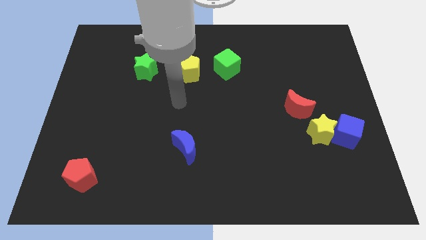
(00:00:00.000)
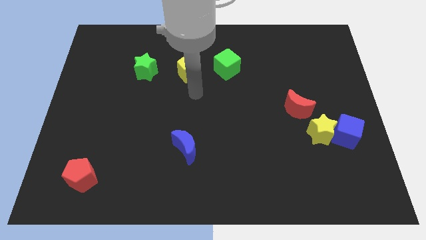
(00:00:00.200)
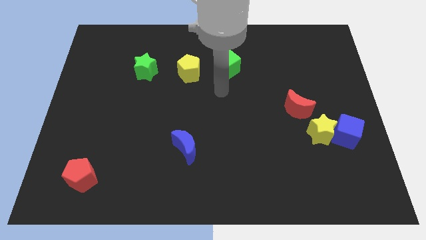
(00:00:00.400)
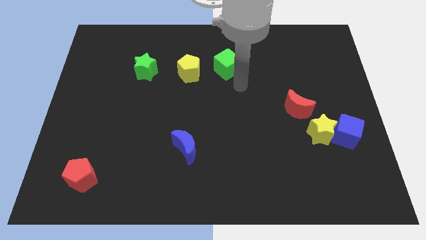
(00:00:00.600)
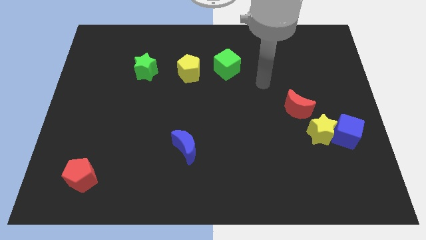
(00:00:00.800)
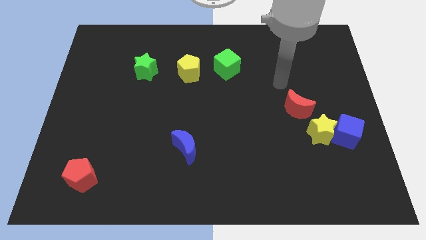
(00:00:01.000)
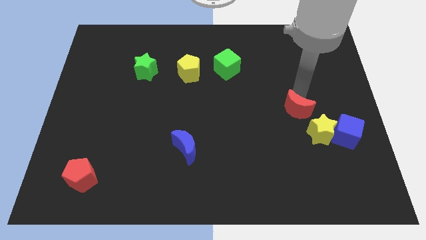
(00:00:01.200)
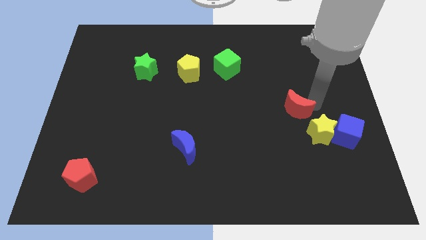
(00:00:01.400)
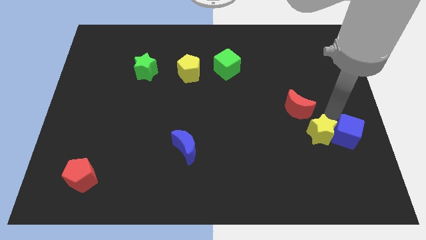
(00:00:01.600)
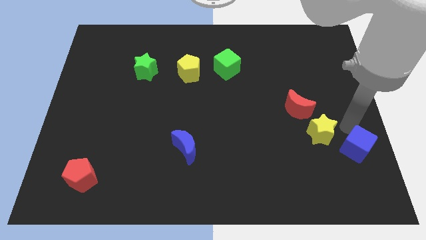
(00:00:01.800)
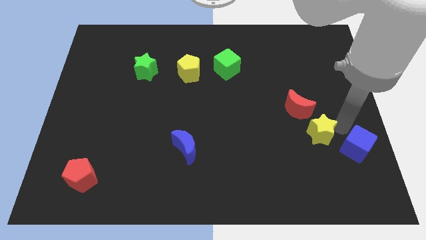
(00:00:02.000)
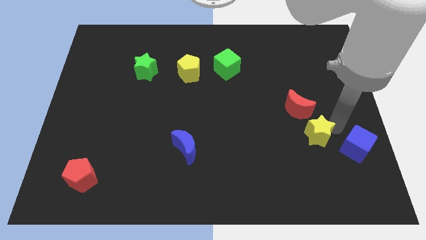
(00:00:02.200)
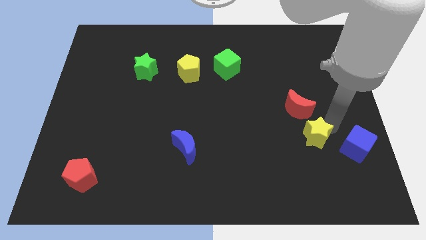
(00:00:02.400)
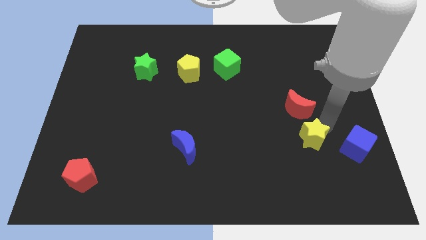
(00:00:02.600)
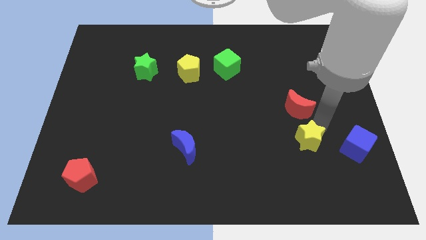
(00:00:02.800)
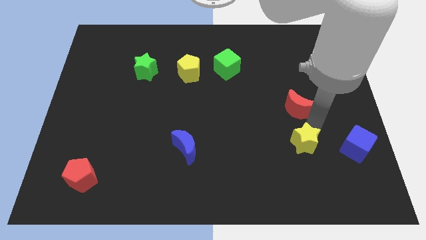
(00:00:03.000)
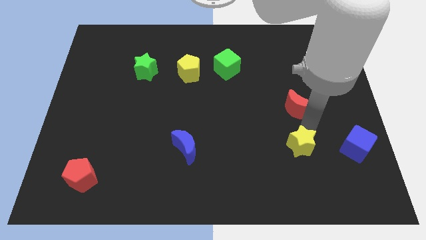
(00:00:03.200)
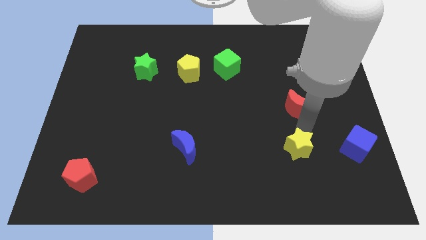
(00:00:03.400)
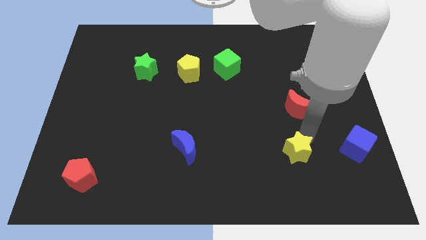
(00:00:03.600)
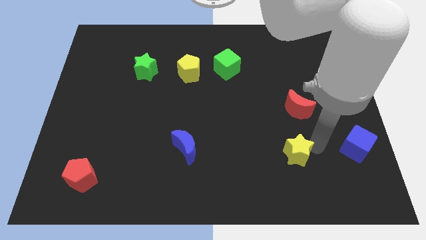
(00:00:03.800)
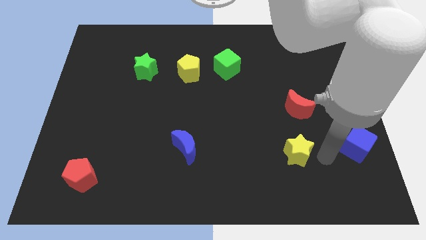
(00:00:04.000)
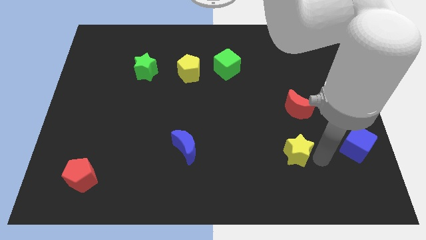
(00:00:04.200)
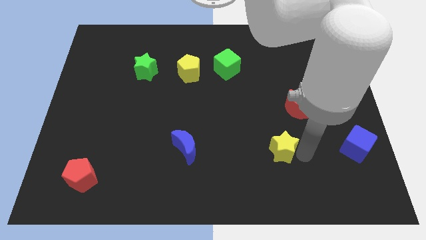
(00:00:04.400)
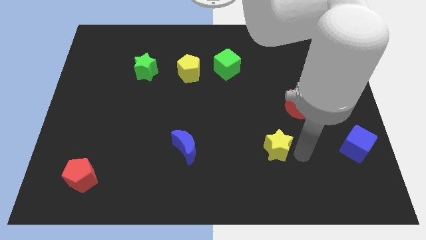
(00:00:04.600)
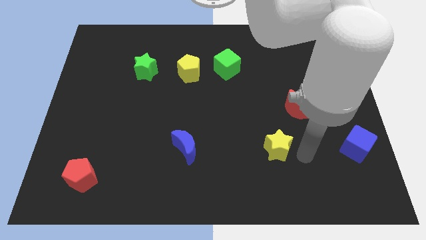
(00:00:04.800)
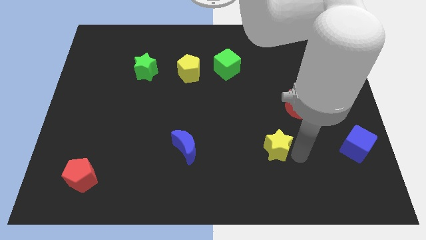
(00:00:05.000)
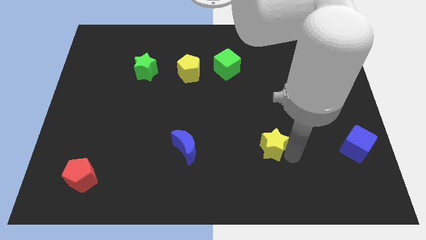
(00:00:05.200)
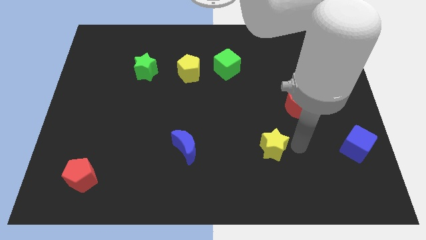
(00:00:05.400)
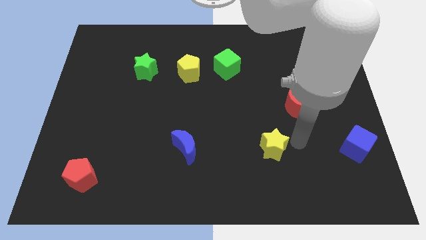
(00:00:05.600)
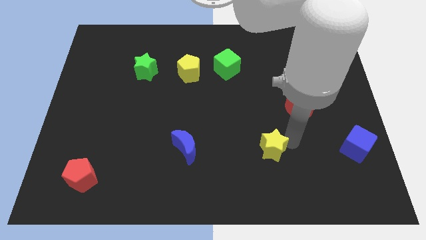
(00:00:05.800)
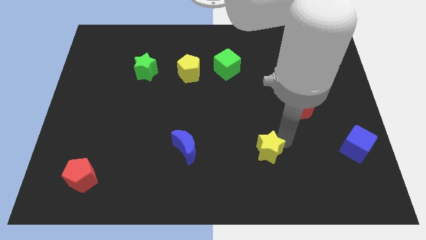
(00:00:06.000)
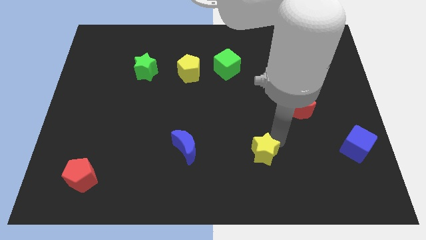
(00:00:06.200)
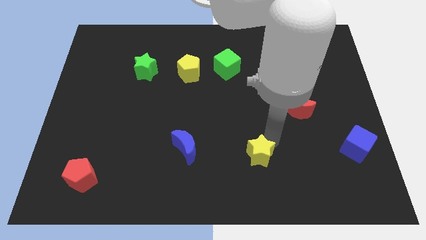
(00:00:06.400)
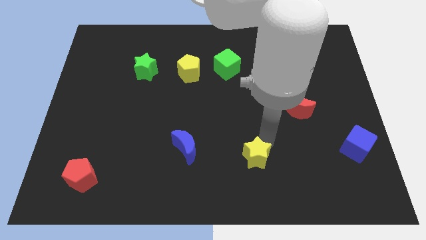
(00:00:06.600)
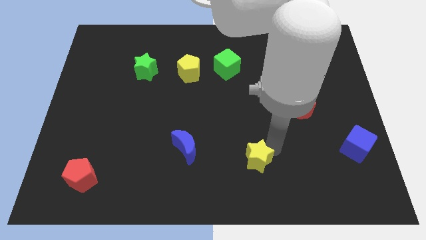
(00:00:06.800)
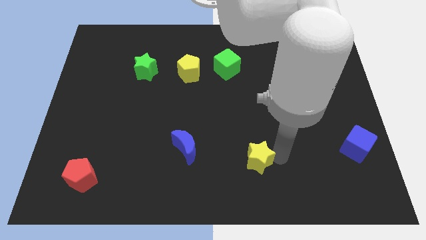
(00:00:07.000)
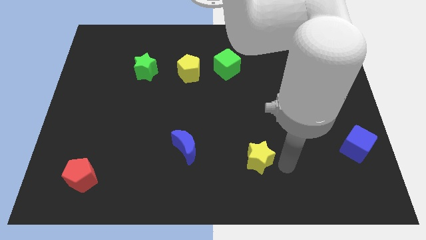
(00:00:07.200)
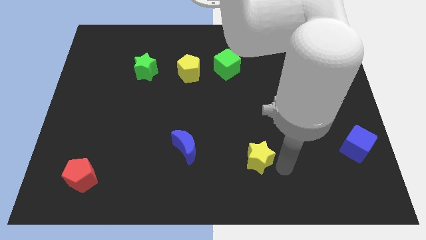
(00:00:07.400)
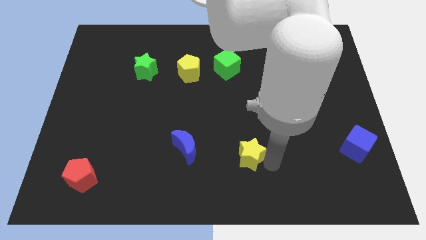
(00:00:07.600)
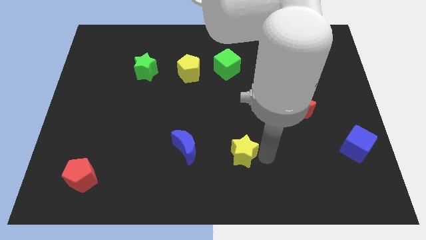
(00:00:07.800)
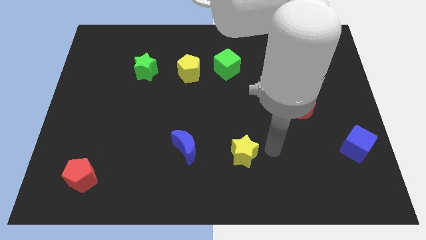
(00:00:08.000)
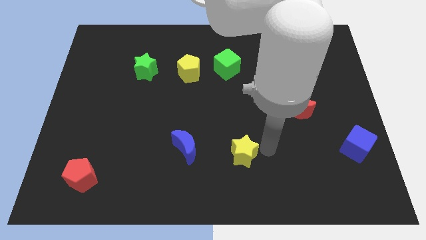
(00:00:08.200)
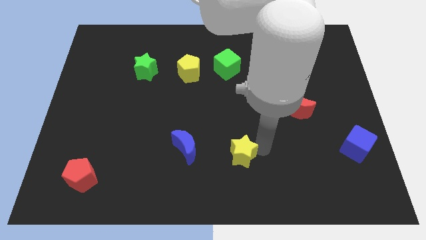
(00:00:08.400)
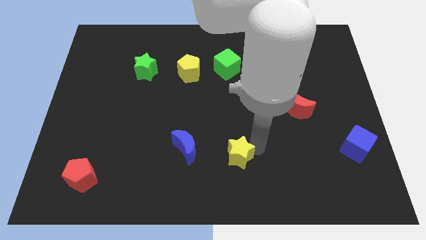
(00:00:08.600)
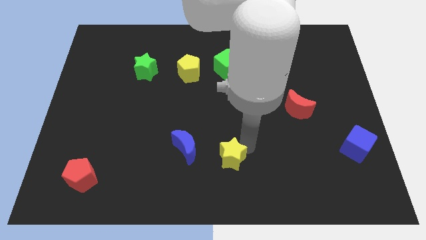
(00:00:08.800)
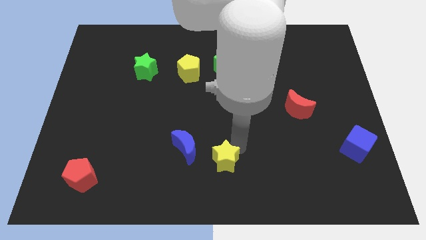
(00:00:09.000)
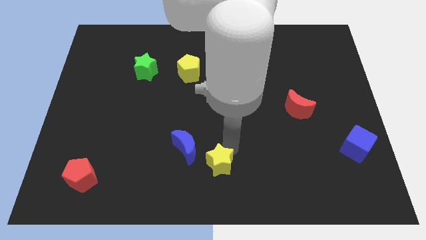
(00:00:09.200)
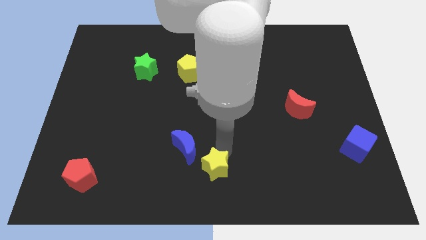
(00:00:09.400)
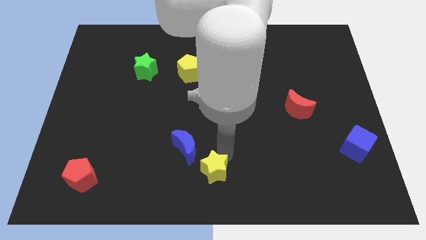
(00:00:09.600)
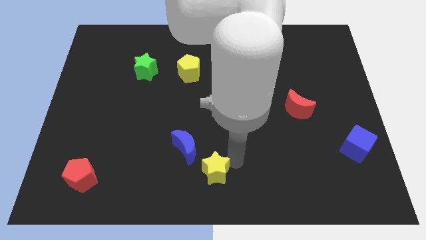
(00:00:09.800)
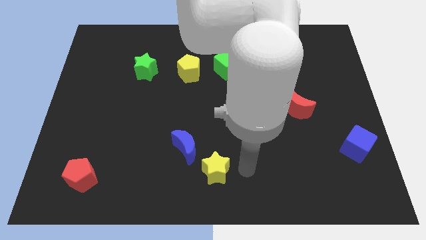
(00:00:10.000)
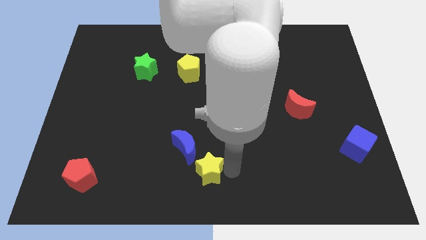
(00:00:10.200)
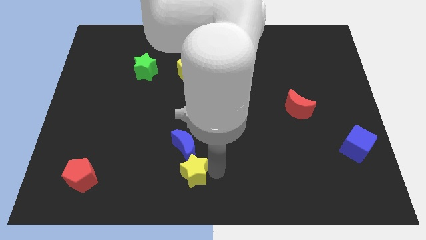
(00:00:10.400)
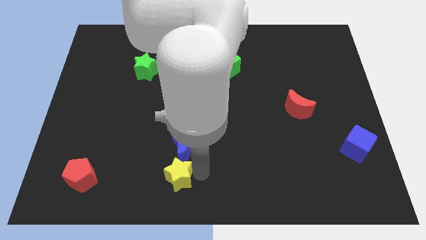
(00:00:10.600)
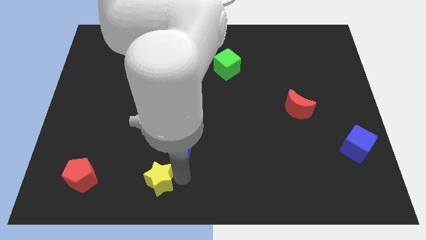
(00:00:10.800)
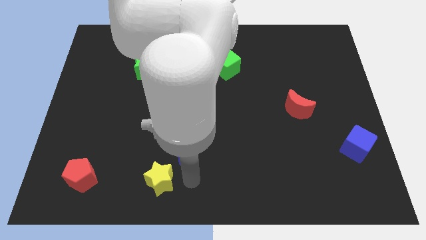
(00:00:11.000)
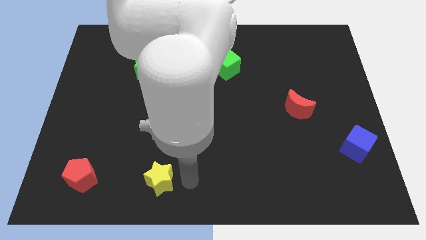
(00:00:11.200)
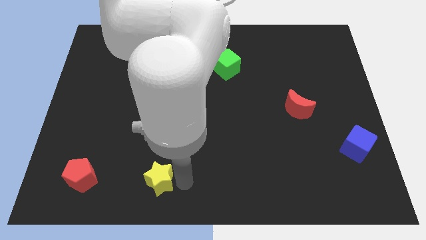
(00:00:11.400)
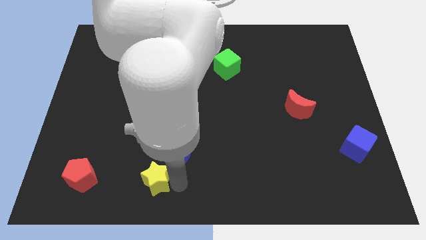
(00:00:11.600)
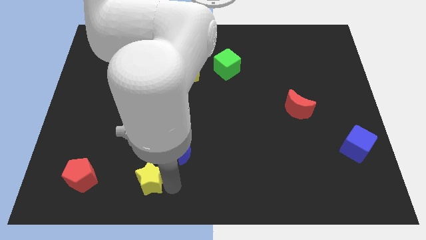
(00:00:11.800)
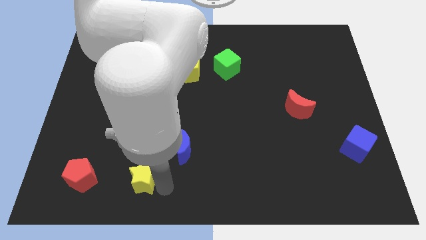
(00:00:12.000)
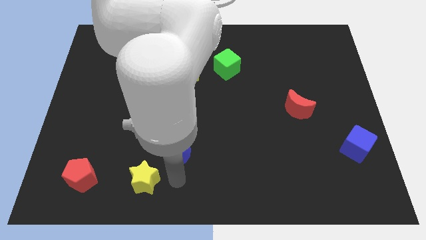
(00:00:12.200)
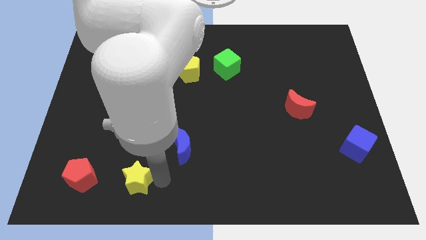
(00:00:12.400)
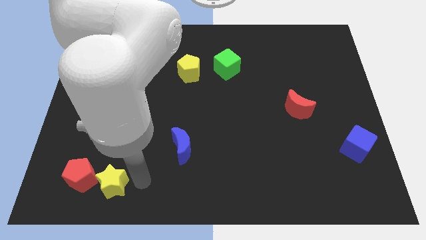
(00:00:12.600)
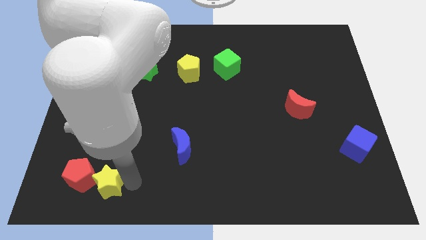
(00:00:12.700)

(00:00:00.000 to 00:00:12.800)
move the yellow star to the red pentagon
